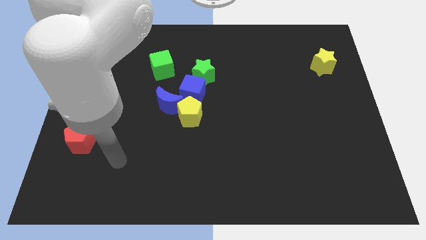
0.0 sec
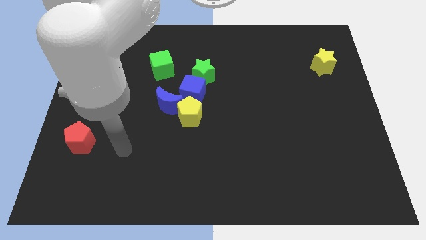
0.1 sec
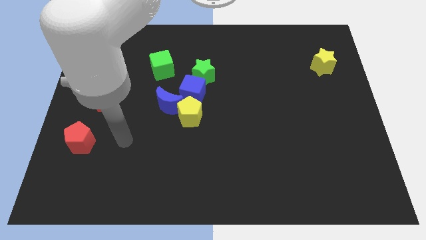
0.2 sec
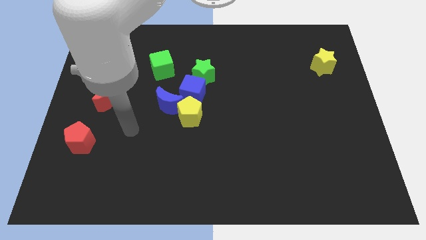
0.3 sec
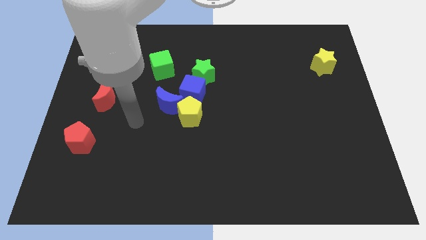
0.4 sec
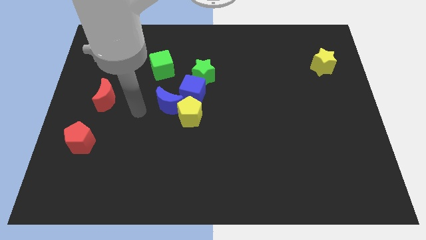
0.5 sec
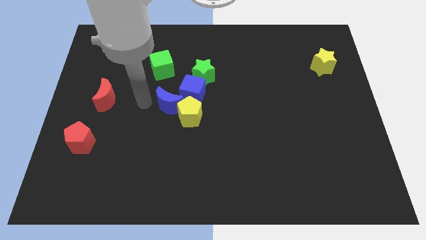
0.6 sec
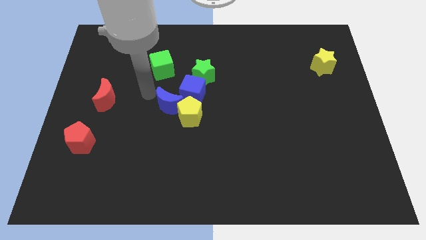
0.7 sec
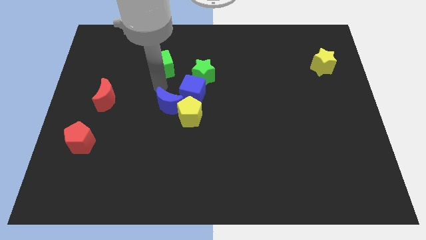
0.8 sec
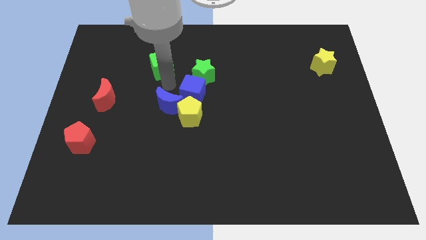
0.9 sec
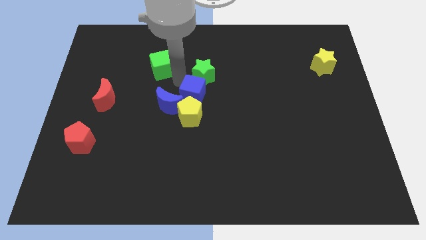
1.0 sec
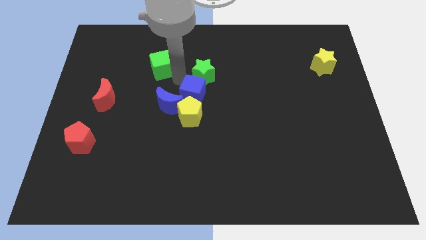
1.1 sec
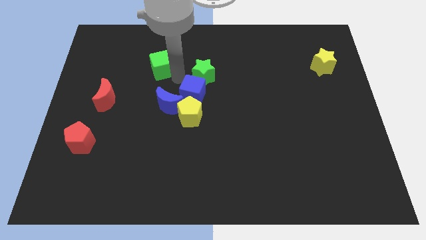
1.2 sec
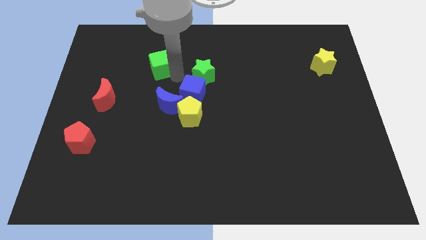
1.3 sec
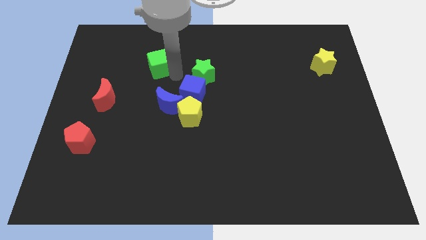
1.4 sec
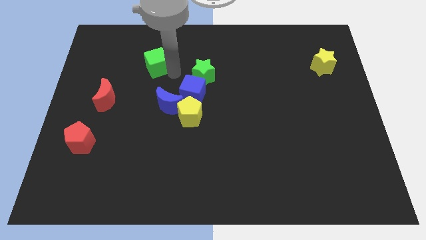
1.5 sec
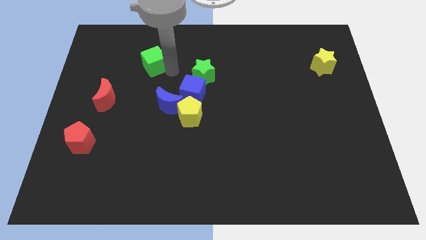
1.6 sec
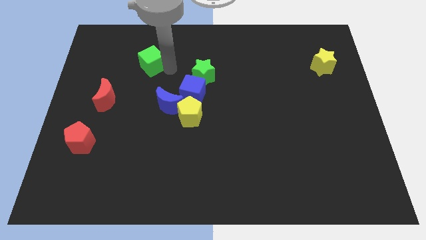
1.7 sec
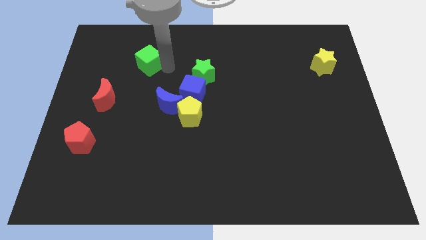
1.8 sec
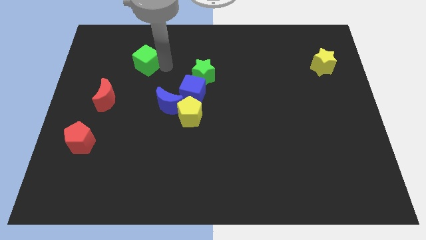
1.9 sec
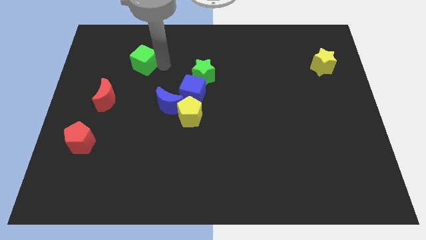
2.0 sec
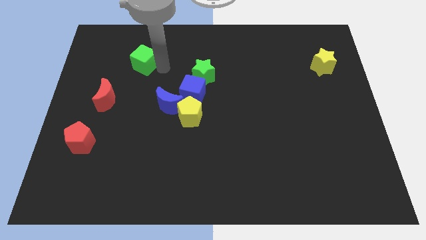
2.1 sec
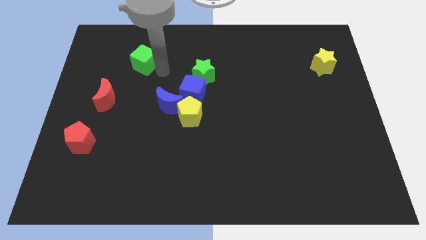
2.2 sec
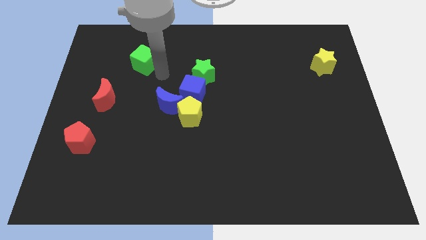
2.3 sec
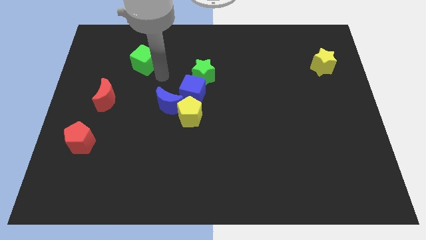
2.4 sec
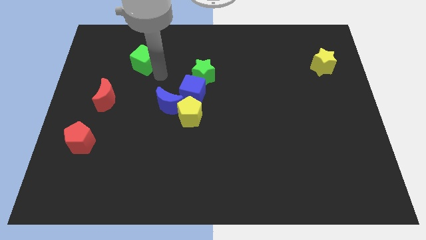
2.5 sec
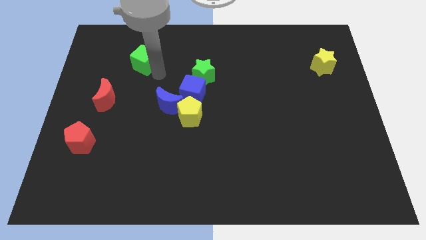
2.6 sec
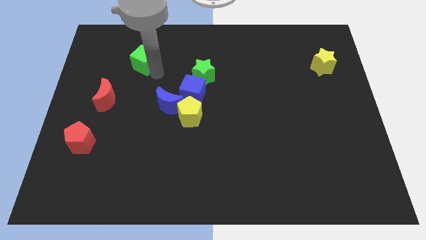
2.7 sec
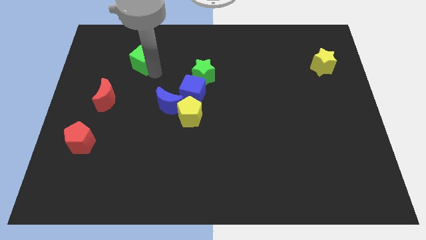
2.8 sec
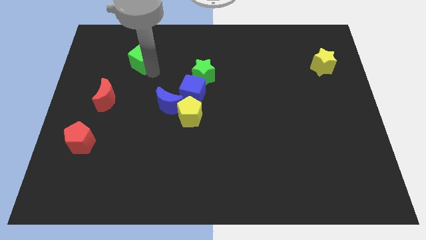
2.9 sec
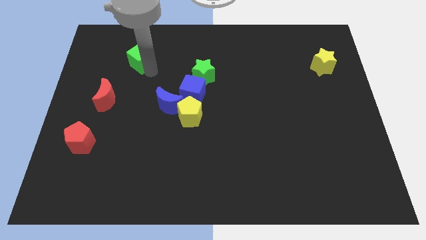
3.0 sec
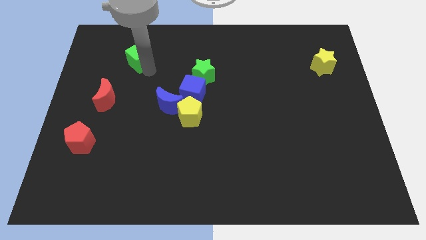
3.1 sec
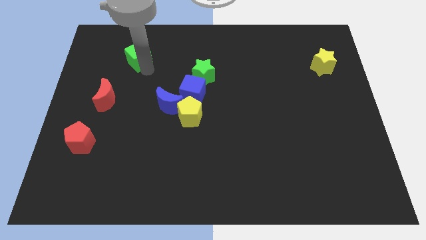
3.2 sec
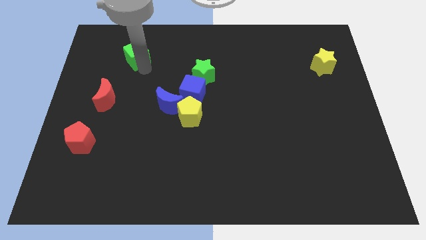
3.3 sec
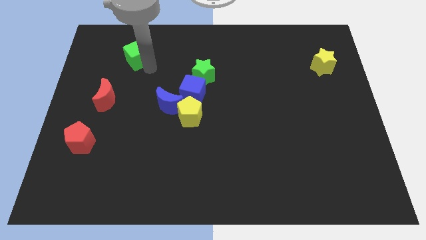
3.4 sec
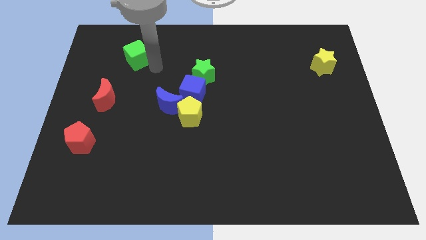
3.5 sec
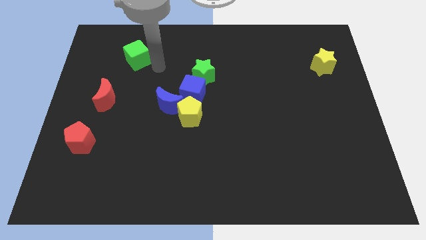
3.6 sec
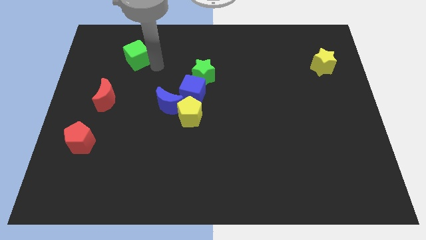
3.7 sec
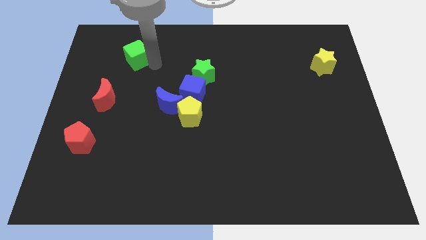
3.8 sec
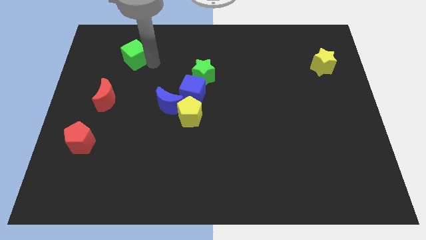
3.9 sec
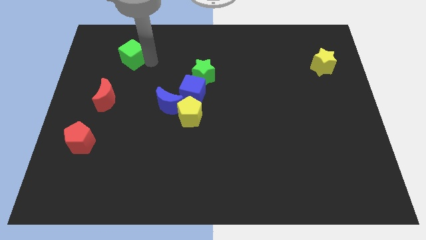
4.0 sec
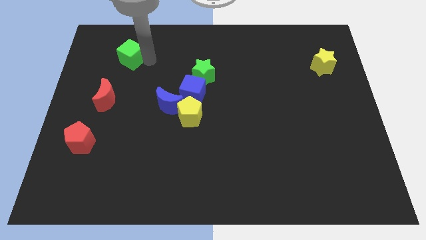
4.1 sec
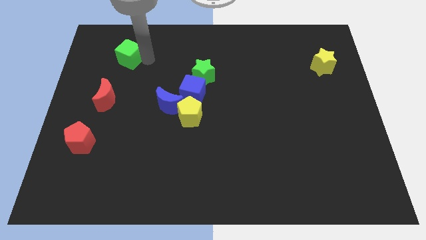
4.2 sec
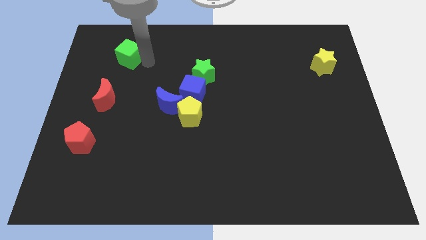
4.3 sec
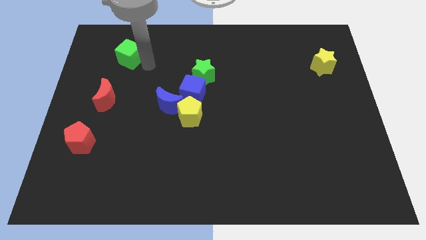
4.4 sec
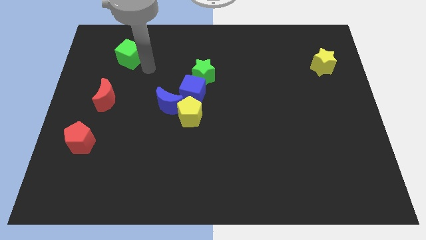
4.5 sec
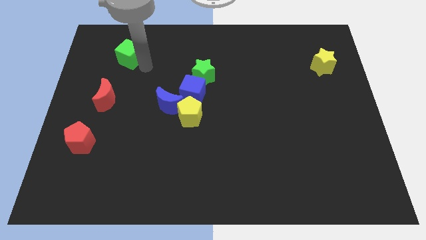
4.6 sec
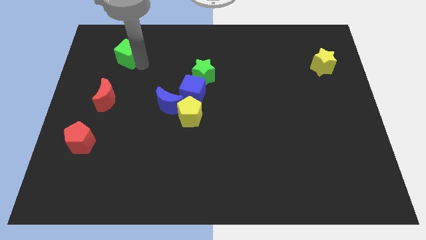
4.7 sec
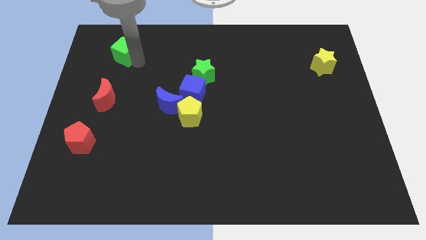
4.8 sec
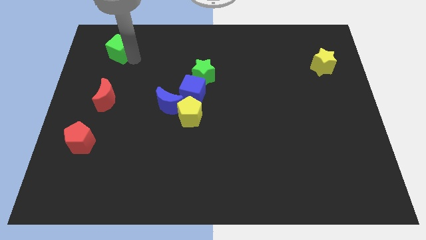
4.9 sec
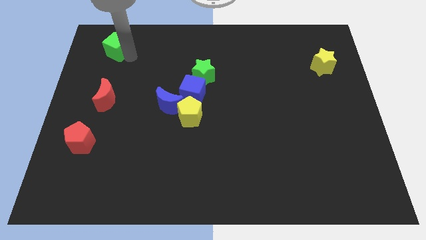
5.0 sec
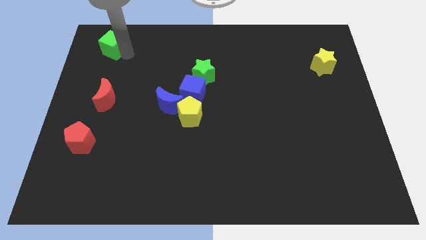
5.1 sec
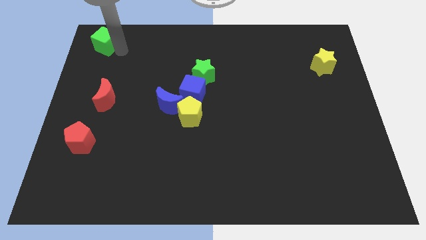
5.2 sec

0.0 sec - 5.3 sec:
move the green cube to the top left corner

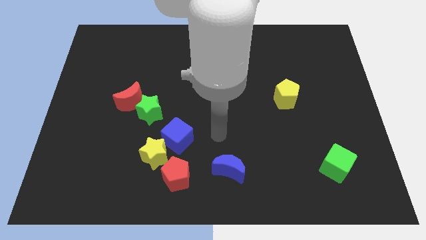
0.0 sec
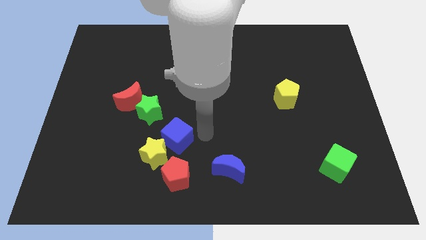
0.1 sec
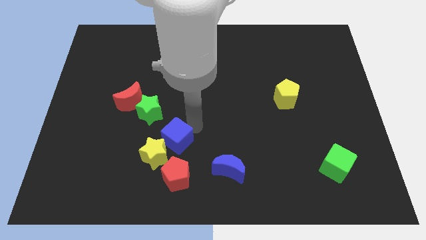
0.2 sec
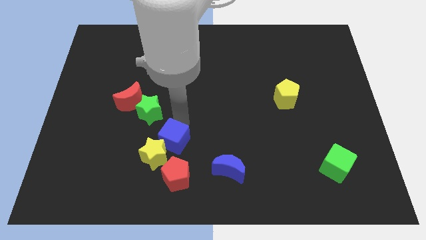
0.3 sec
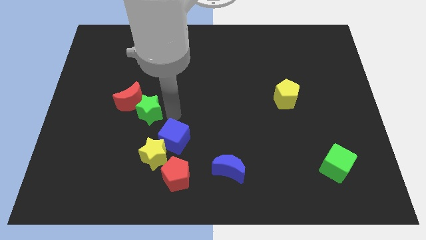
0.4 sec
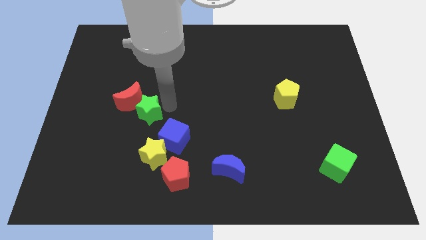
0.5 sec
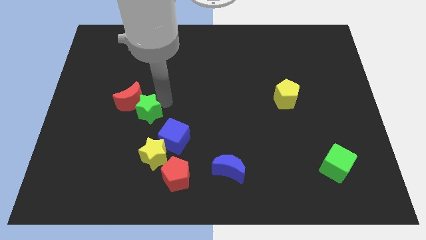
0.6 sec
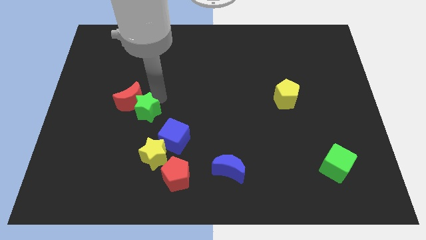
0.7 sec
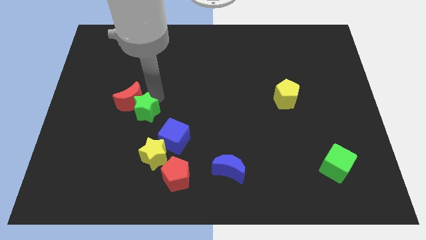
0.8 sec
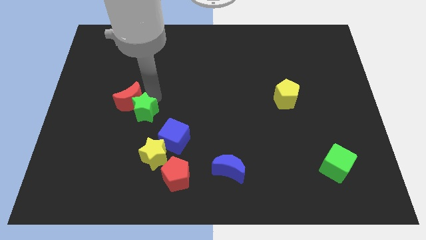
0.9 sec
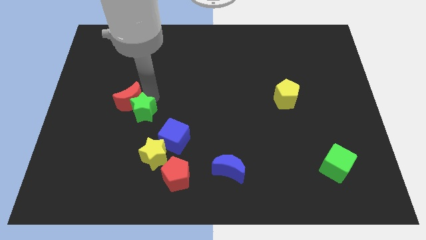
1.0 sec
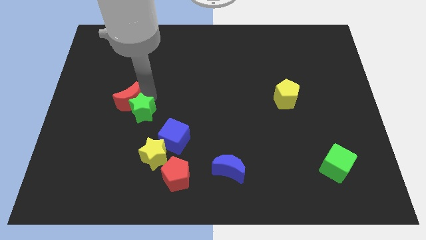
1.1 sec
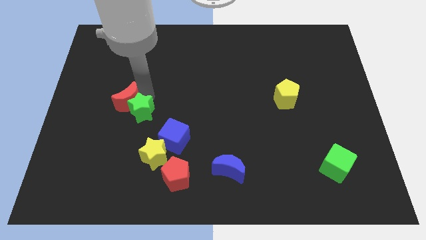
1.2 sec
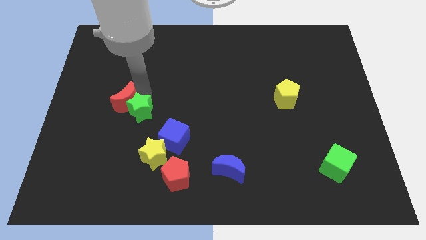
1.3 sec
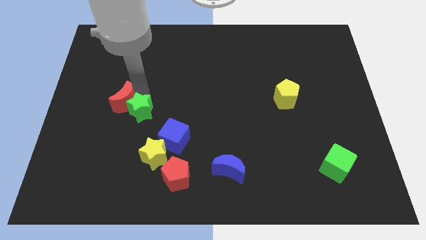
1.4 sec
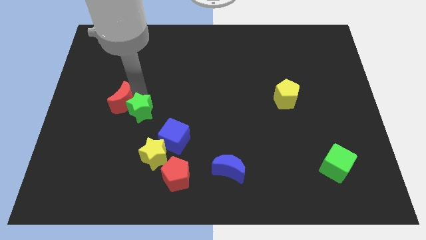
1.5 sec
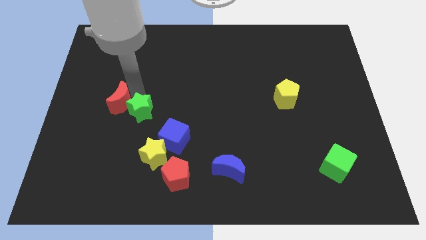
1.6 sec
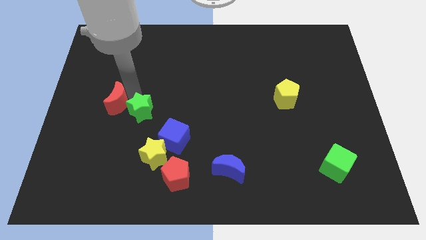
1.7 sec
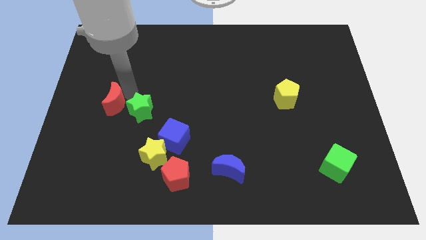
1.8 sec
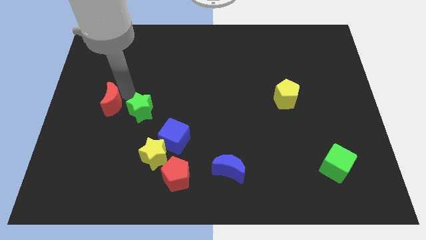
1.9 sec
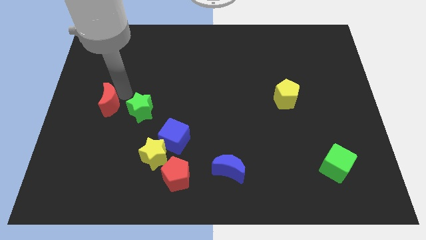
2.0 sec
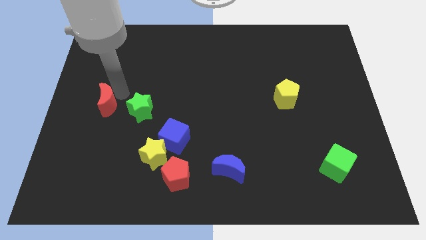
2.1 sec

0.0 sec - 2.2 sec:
move the red moon to the left side
